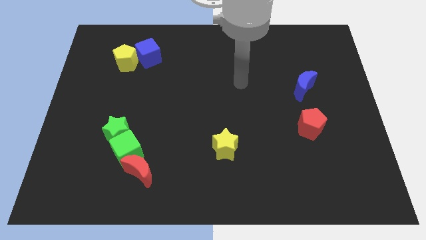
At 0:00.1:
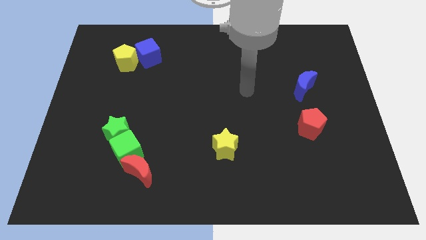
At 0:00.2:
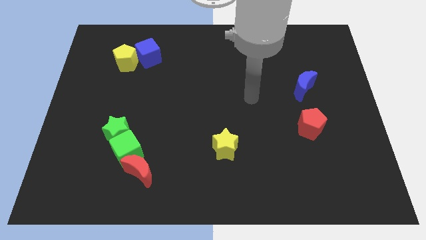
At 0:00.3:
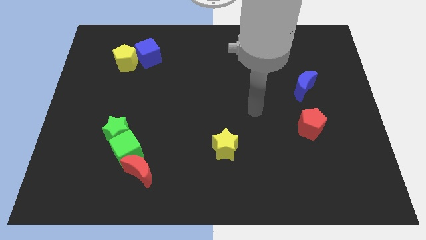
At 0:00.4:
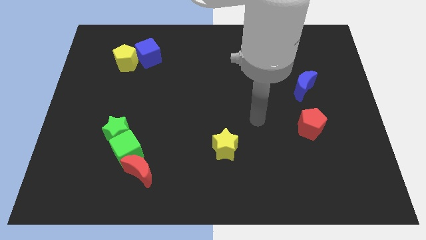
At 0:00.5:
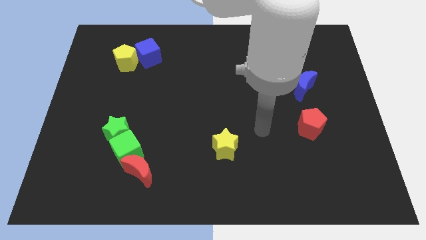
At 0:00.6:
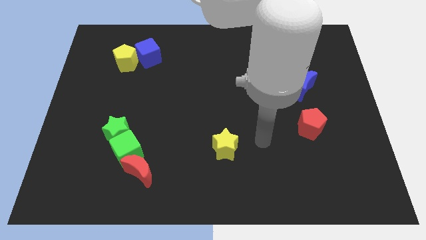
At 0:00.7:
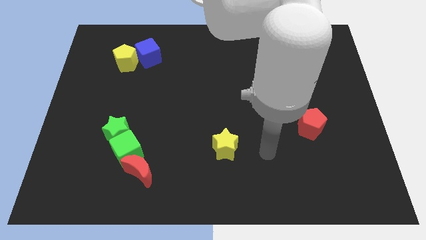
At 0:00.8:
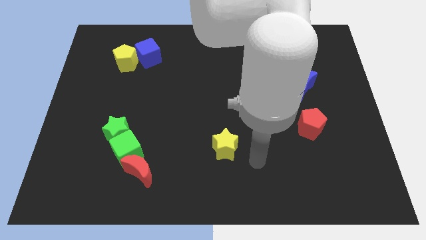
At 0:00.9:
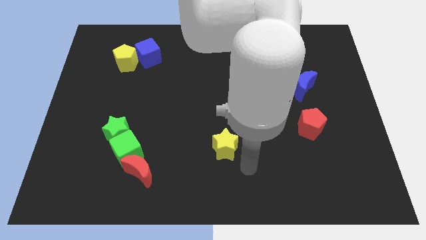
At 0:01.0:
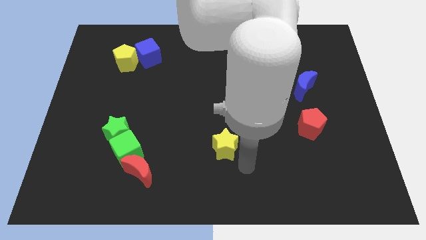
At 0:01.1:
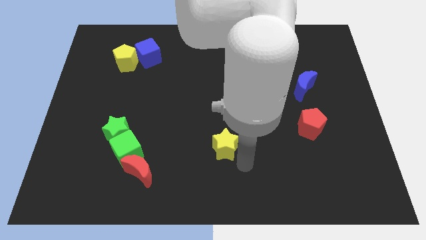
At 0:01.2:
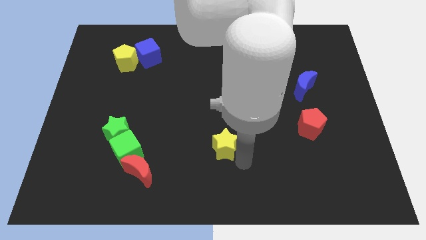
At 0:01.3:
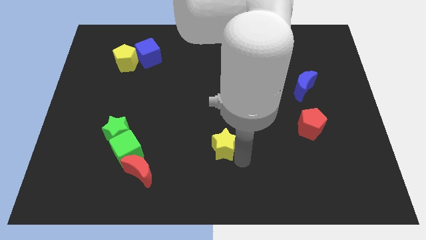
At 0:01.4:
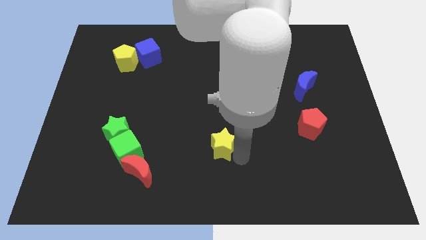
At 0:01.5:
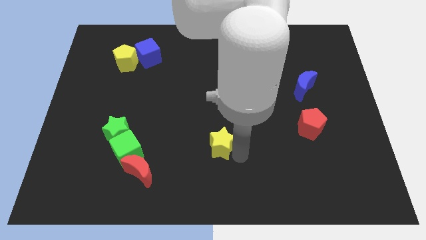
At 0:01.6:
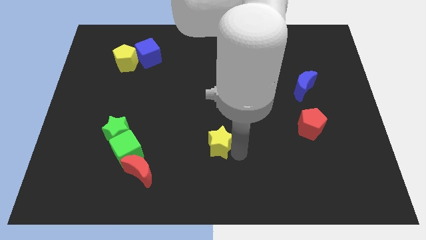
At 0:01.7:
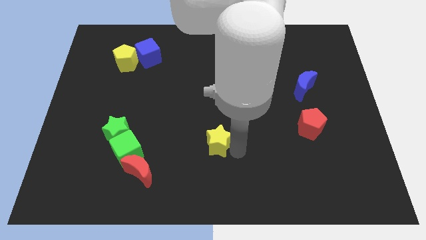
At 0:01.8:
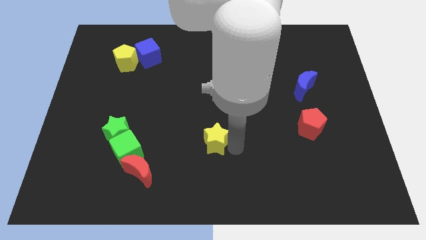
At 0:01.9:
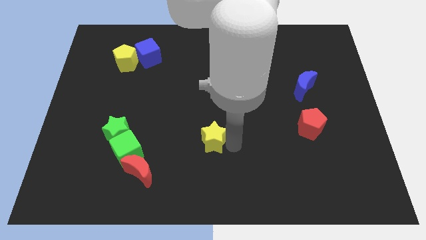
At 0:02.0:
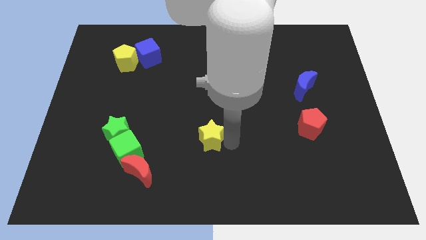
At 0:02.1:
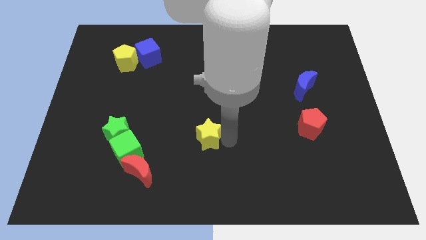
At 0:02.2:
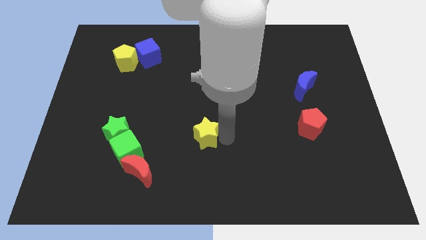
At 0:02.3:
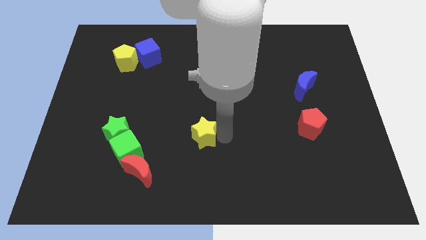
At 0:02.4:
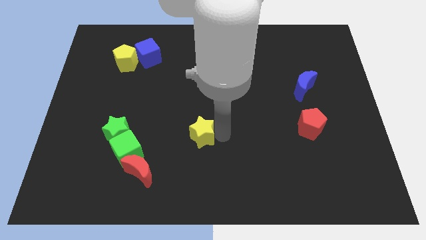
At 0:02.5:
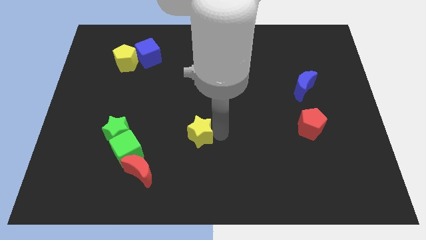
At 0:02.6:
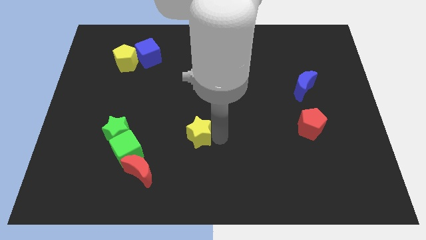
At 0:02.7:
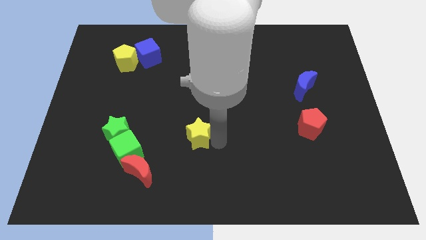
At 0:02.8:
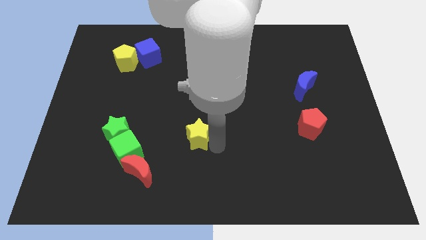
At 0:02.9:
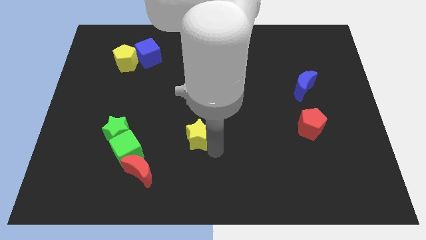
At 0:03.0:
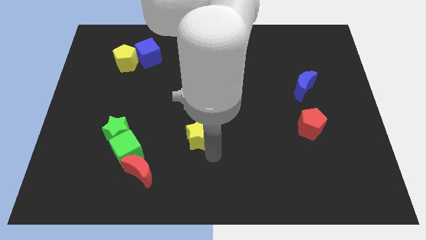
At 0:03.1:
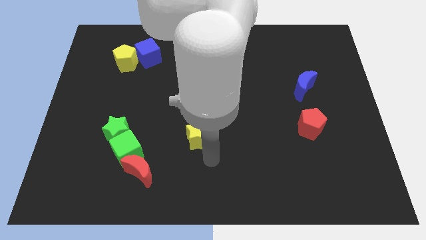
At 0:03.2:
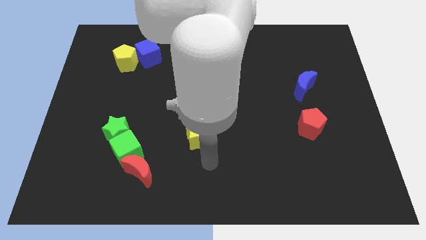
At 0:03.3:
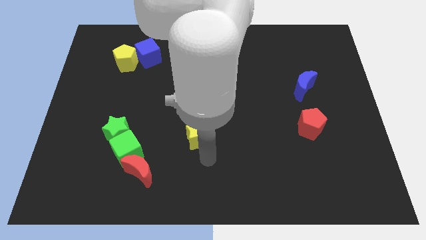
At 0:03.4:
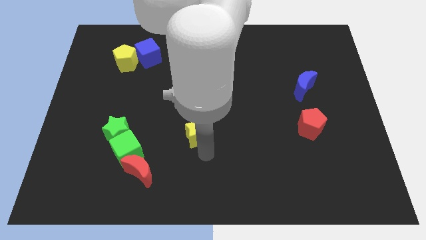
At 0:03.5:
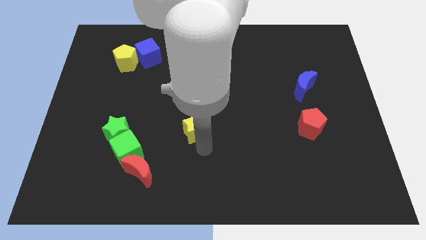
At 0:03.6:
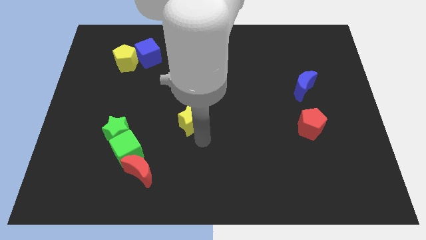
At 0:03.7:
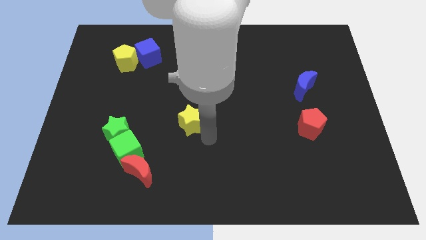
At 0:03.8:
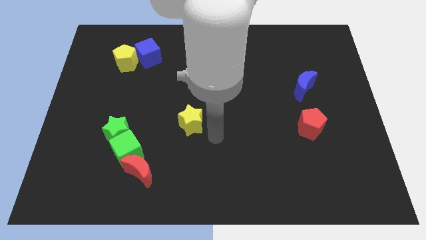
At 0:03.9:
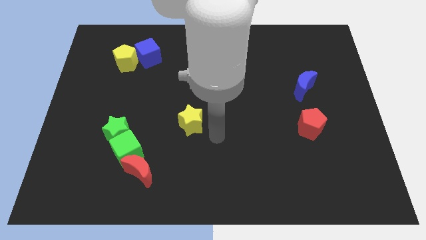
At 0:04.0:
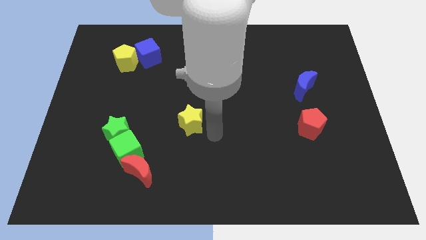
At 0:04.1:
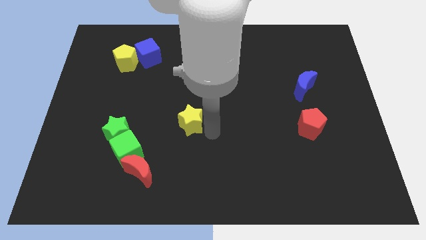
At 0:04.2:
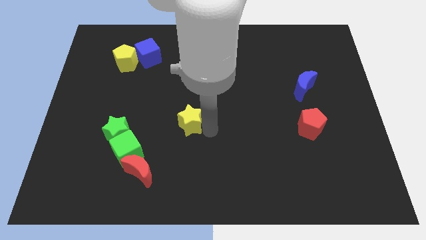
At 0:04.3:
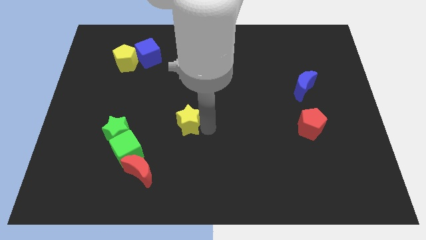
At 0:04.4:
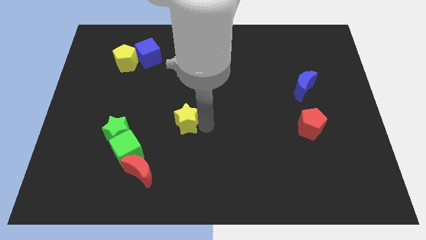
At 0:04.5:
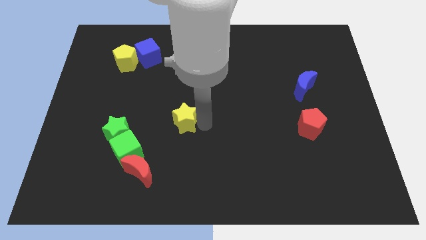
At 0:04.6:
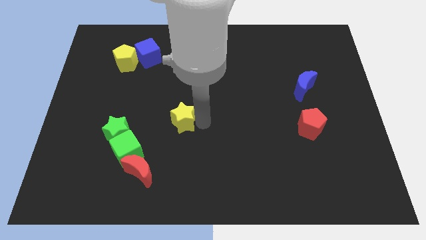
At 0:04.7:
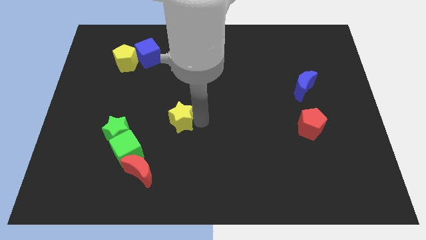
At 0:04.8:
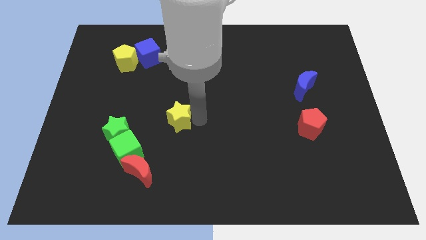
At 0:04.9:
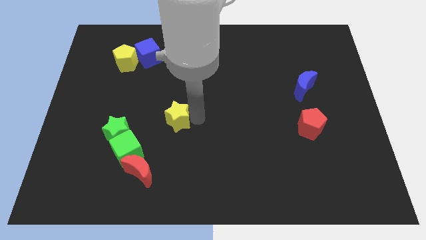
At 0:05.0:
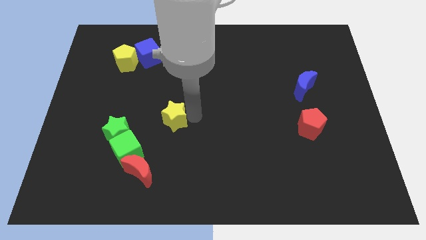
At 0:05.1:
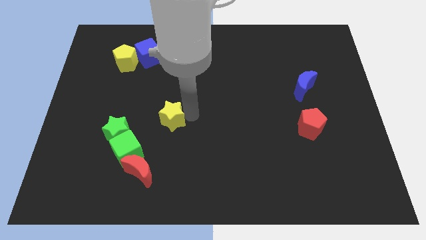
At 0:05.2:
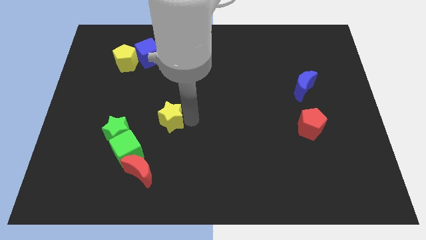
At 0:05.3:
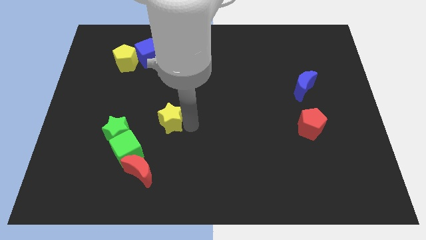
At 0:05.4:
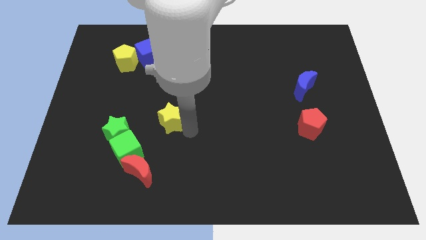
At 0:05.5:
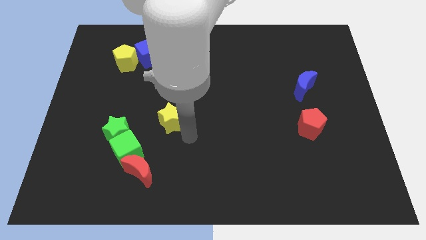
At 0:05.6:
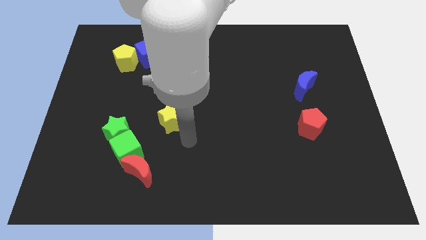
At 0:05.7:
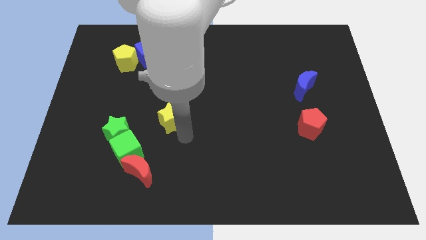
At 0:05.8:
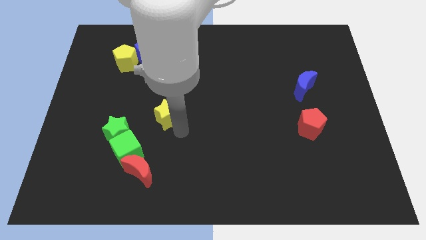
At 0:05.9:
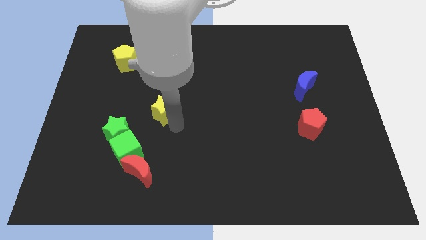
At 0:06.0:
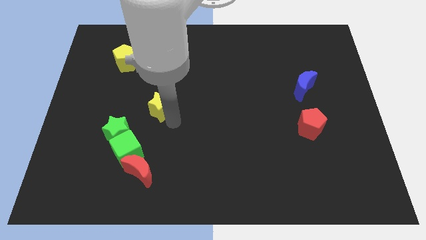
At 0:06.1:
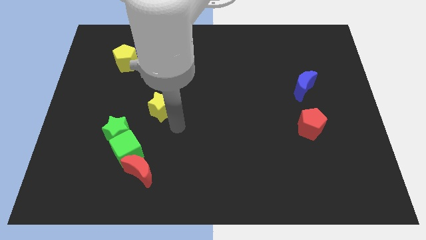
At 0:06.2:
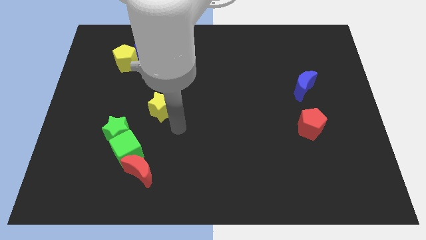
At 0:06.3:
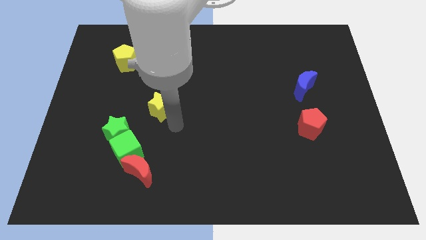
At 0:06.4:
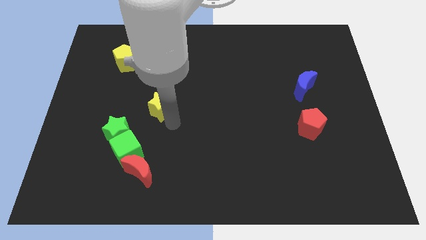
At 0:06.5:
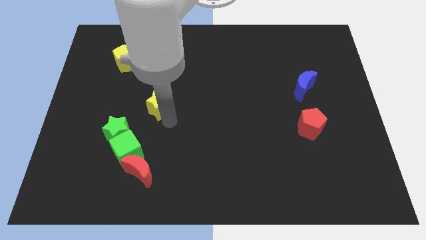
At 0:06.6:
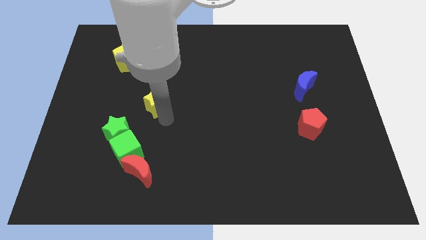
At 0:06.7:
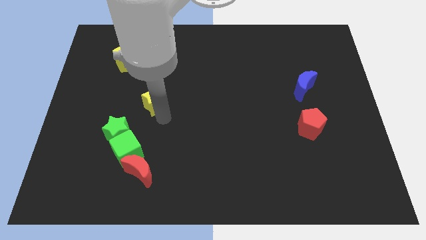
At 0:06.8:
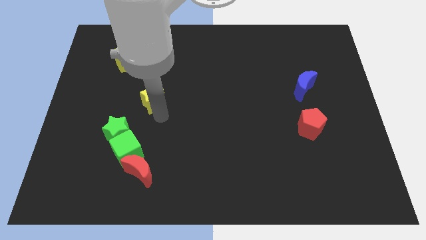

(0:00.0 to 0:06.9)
put the yellow star to the bottom side of the blue cube

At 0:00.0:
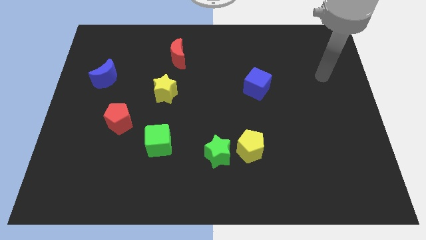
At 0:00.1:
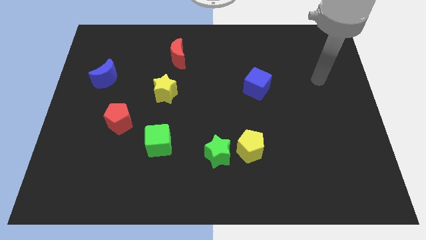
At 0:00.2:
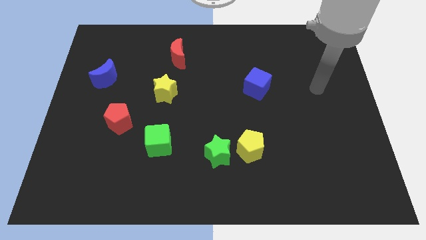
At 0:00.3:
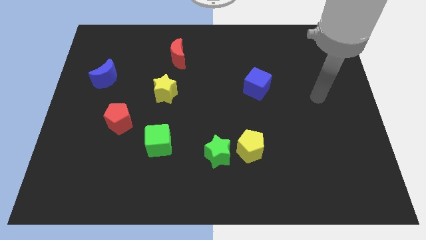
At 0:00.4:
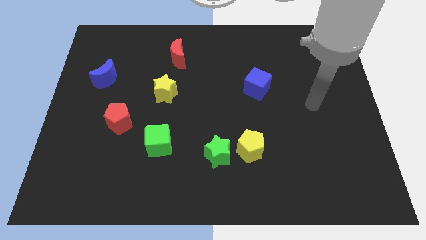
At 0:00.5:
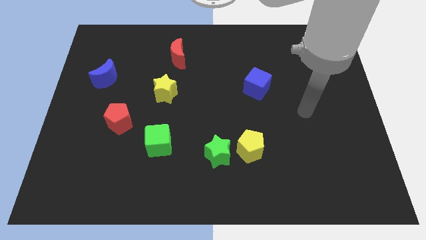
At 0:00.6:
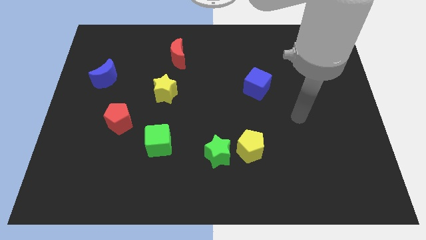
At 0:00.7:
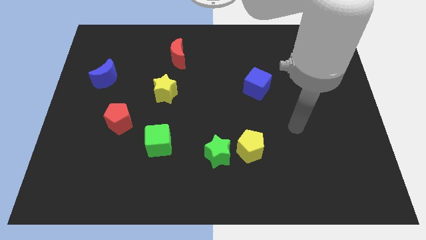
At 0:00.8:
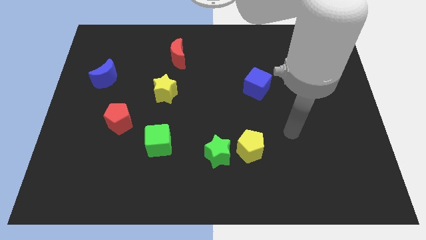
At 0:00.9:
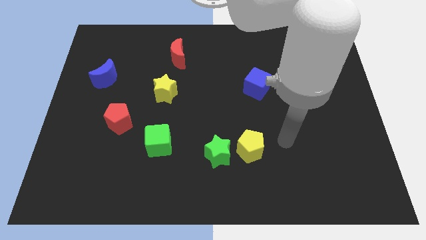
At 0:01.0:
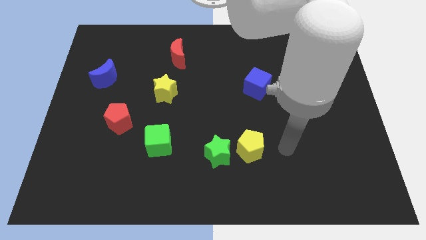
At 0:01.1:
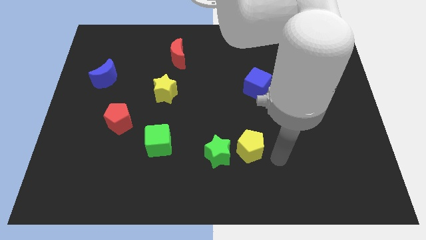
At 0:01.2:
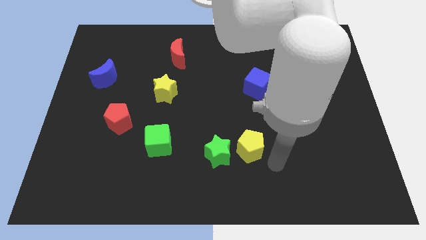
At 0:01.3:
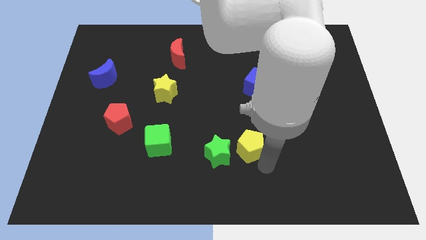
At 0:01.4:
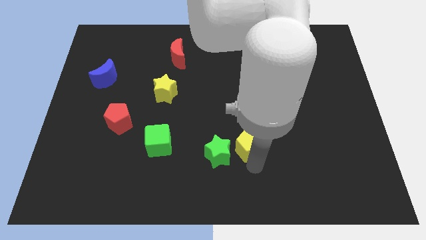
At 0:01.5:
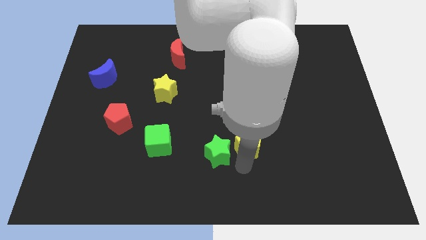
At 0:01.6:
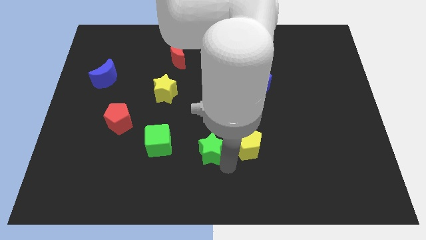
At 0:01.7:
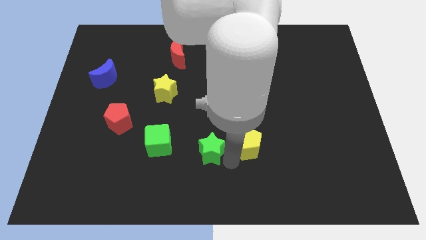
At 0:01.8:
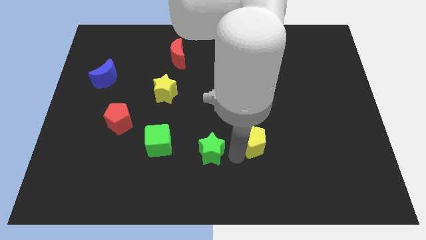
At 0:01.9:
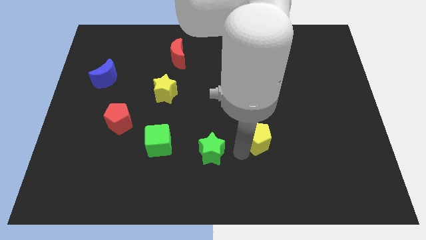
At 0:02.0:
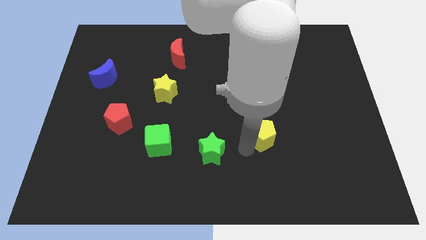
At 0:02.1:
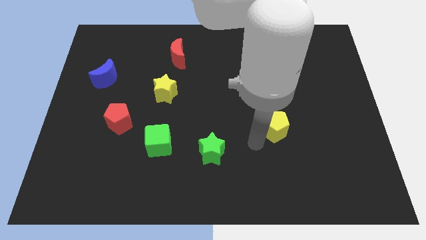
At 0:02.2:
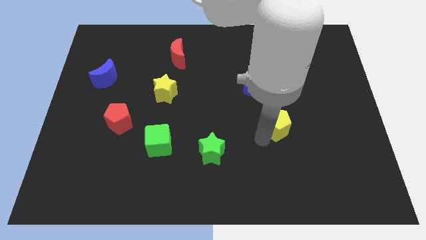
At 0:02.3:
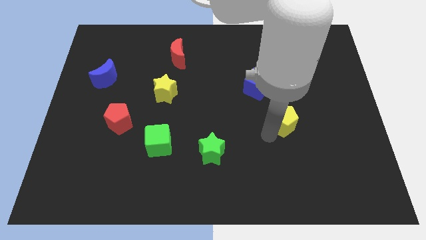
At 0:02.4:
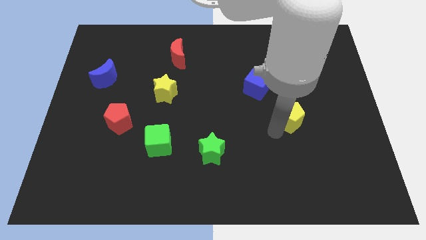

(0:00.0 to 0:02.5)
move the yellow pentagon to the bottom right of the blue cube
